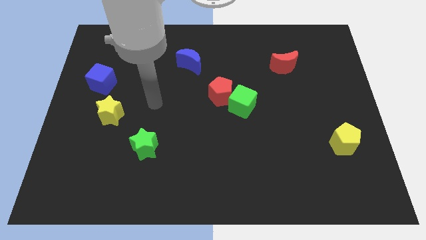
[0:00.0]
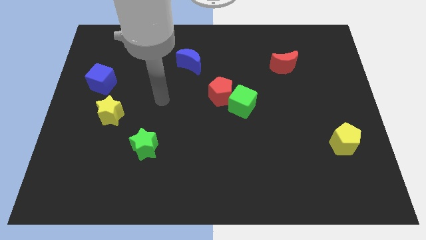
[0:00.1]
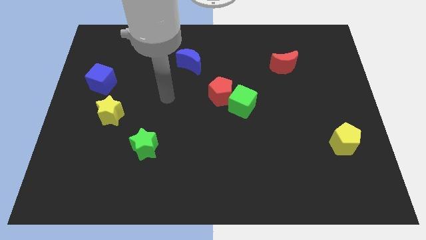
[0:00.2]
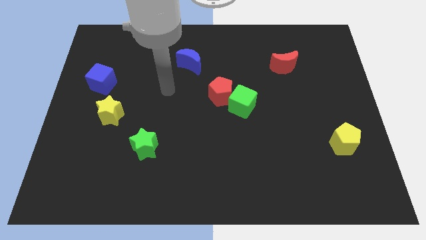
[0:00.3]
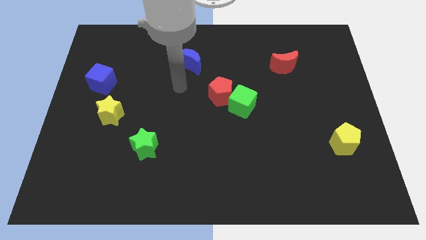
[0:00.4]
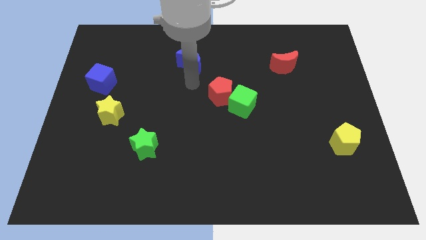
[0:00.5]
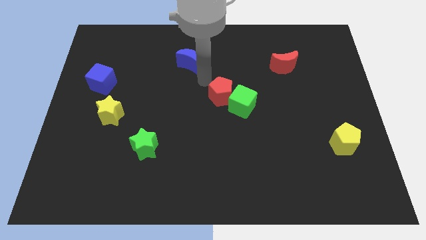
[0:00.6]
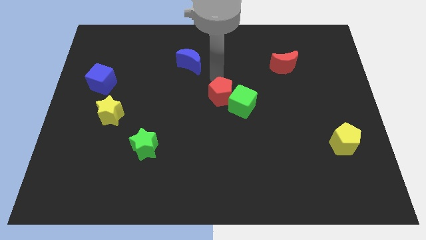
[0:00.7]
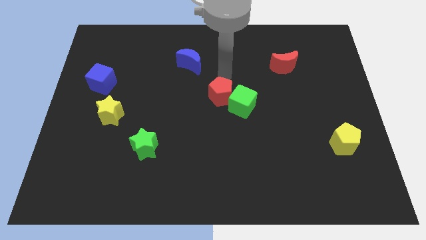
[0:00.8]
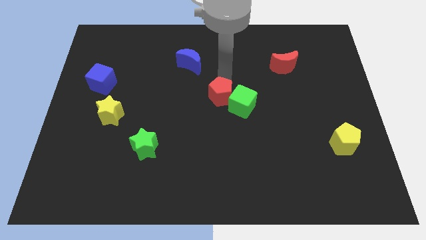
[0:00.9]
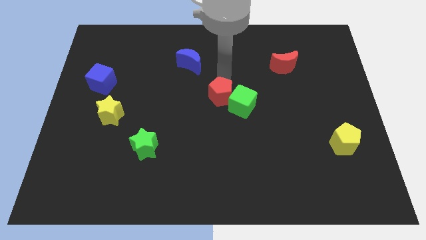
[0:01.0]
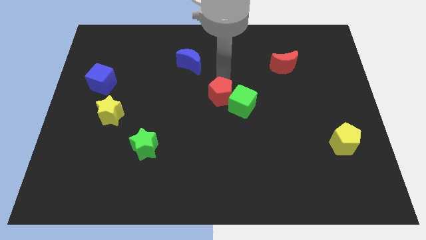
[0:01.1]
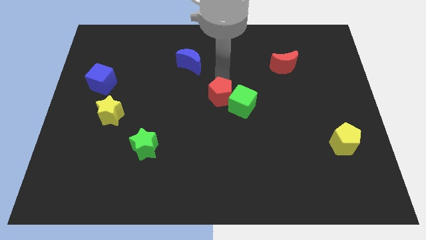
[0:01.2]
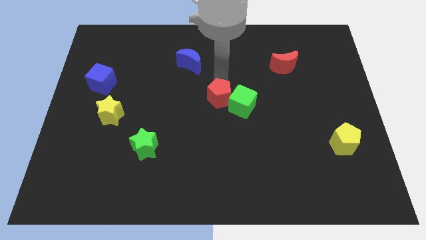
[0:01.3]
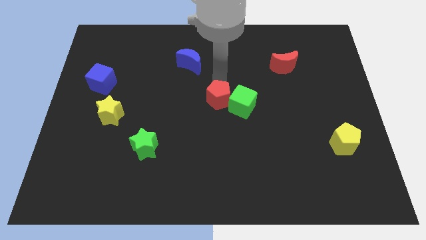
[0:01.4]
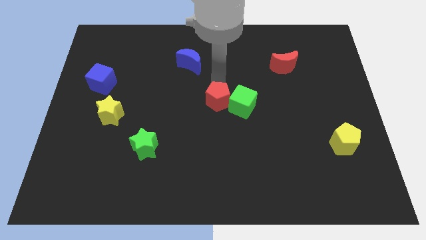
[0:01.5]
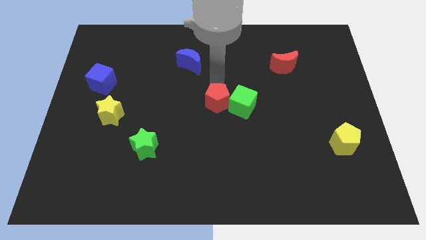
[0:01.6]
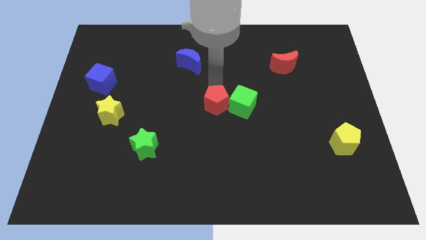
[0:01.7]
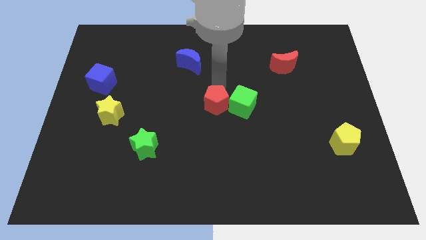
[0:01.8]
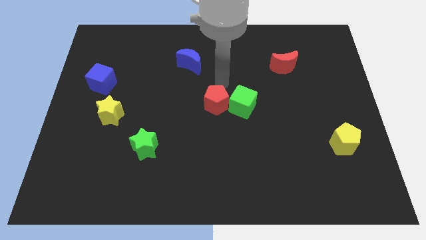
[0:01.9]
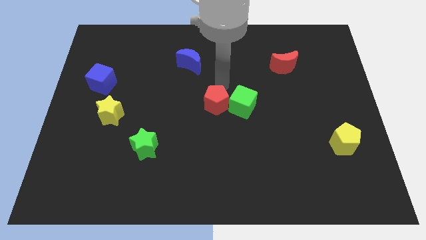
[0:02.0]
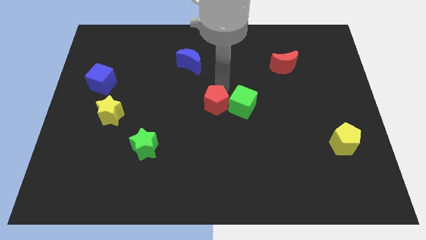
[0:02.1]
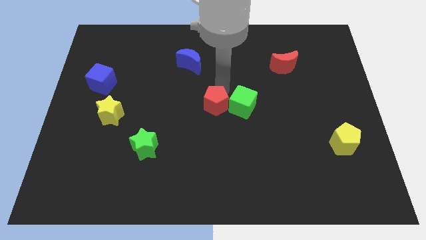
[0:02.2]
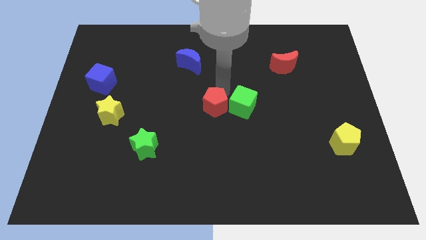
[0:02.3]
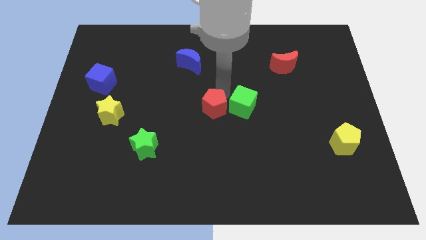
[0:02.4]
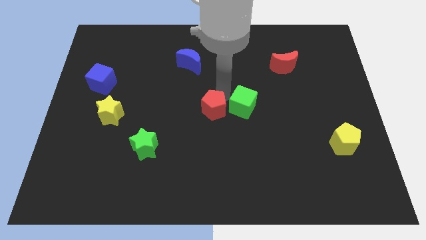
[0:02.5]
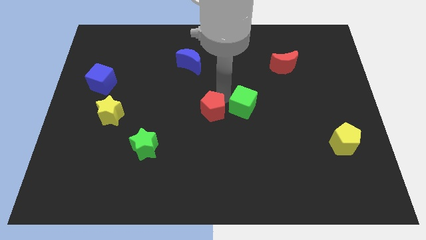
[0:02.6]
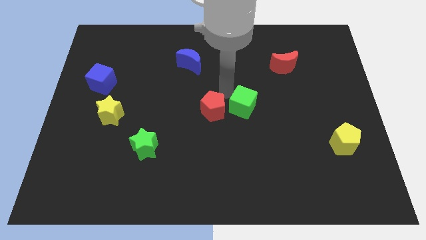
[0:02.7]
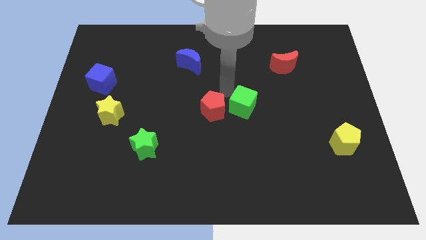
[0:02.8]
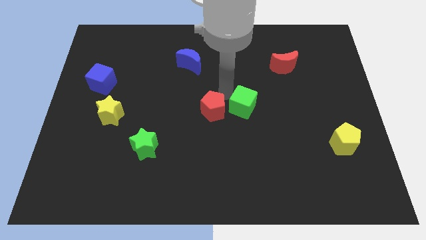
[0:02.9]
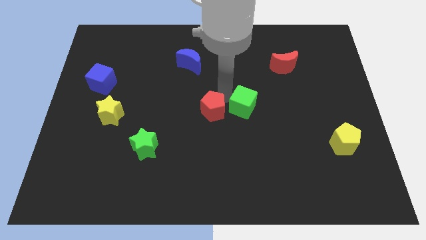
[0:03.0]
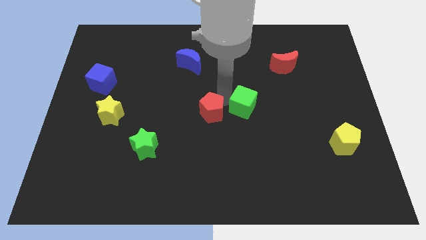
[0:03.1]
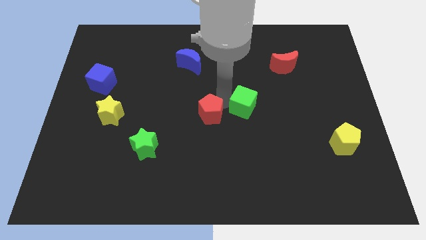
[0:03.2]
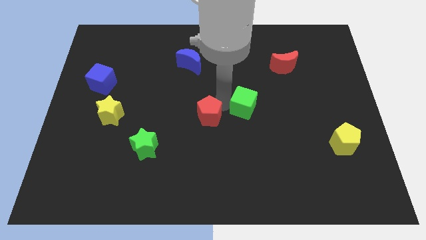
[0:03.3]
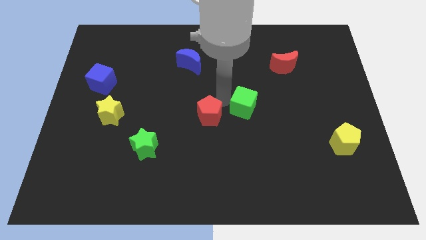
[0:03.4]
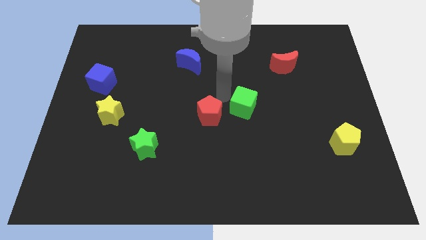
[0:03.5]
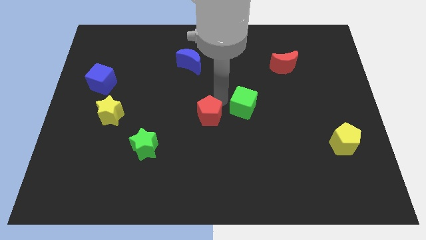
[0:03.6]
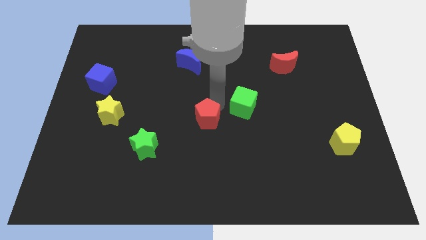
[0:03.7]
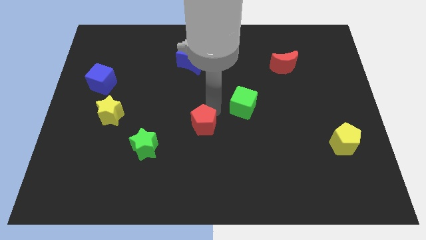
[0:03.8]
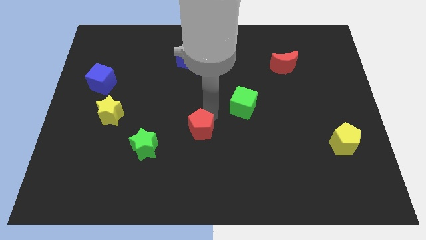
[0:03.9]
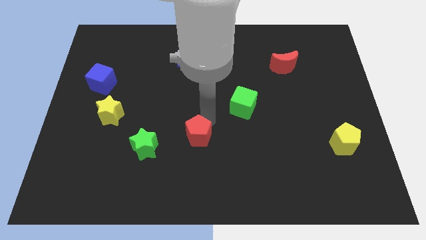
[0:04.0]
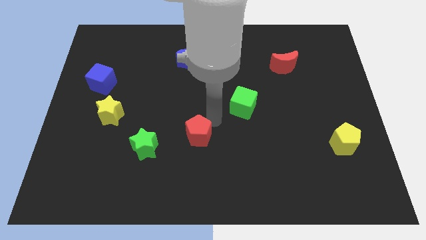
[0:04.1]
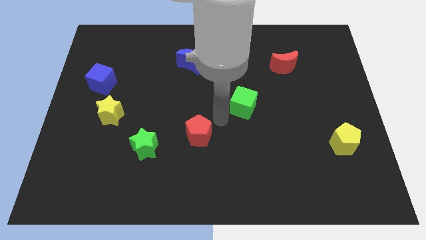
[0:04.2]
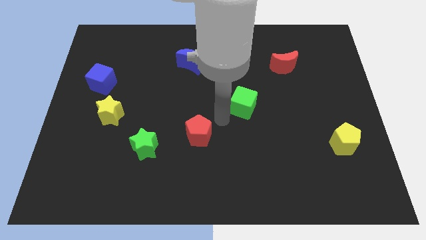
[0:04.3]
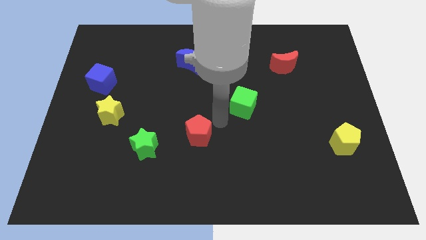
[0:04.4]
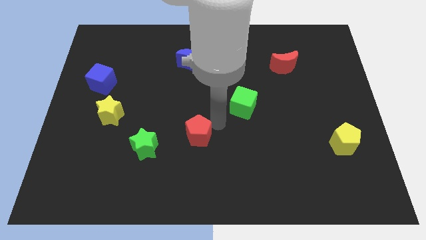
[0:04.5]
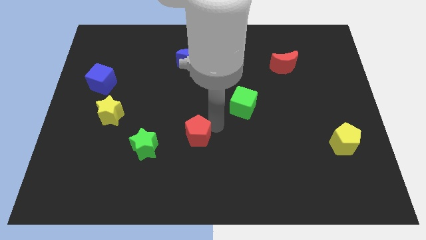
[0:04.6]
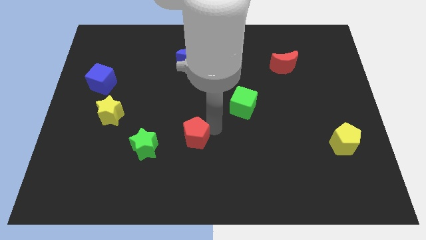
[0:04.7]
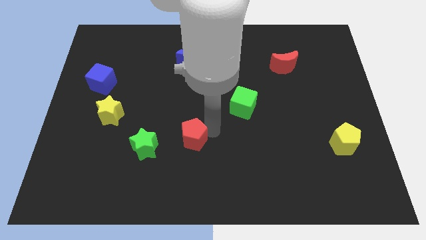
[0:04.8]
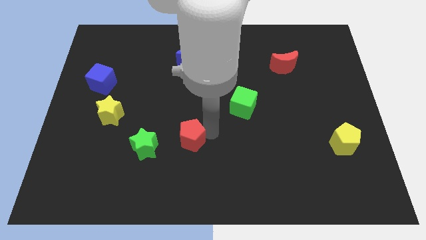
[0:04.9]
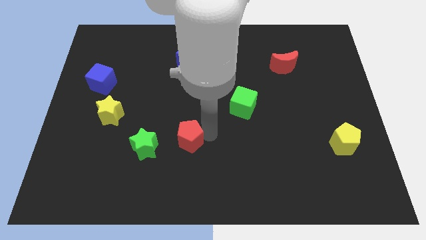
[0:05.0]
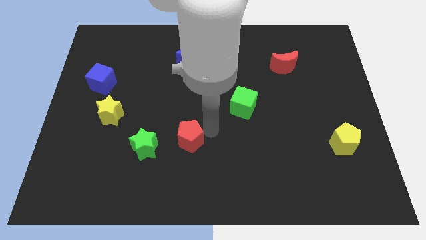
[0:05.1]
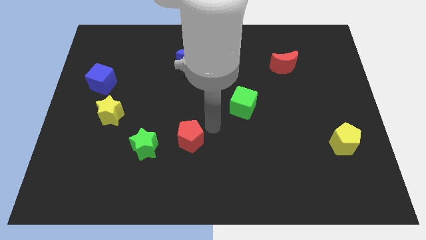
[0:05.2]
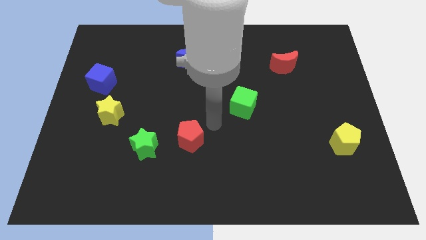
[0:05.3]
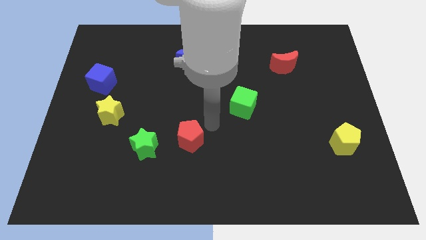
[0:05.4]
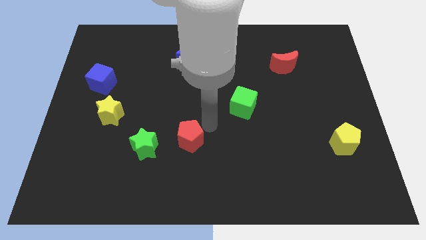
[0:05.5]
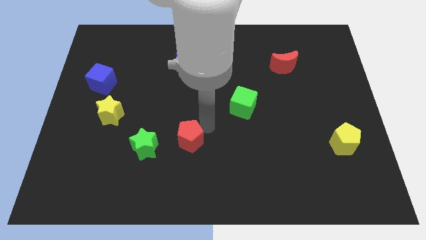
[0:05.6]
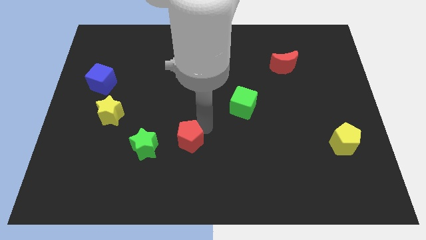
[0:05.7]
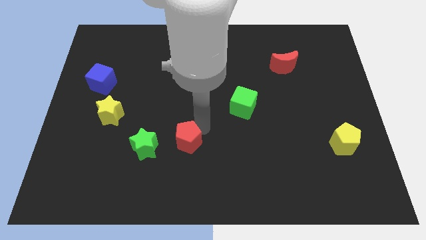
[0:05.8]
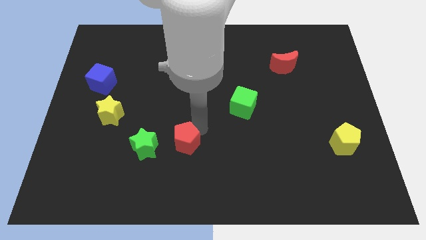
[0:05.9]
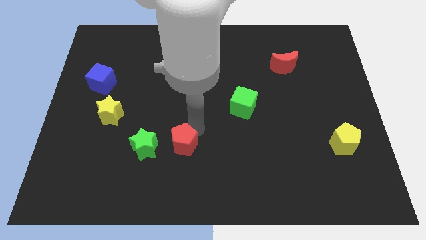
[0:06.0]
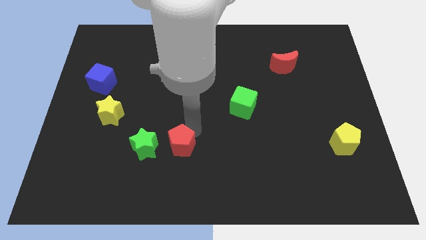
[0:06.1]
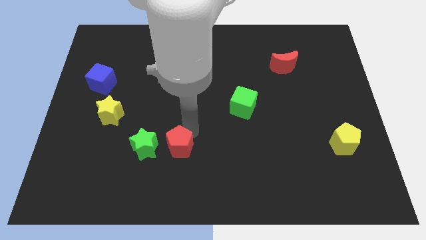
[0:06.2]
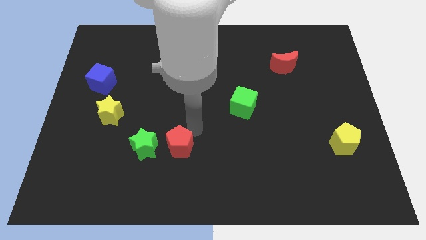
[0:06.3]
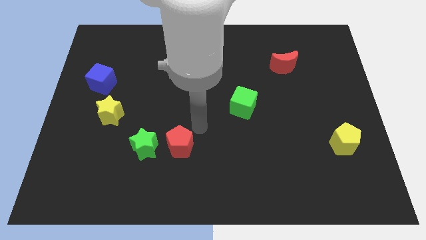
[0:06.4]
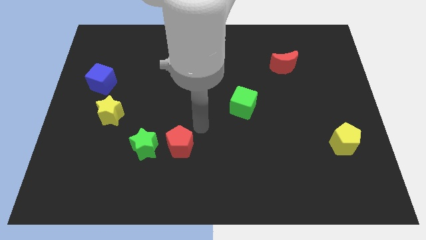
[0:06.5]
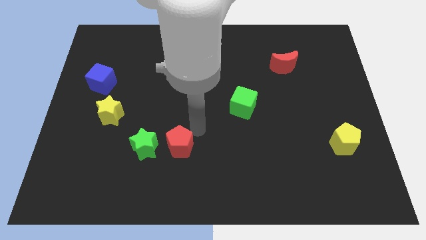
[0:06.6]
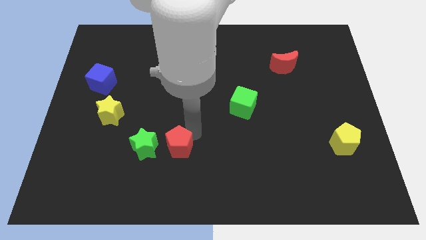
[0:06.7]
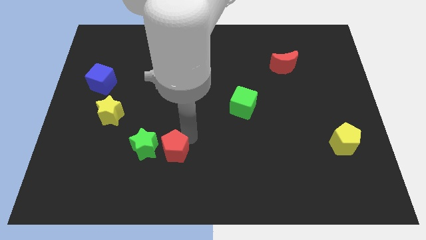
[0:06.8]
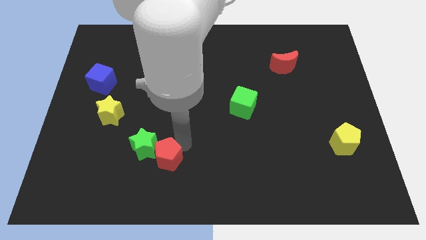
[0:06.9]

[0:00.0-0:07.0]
move the red pentagon downwards and then to the left

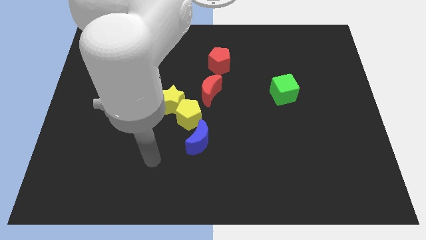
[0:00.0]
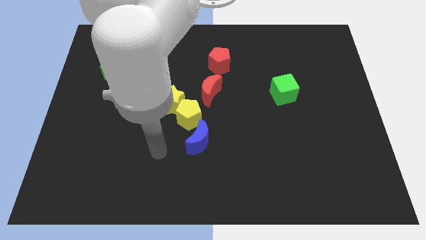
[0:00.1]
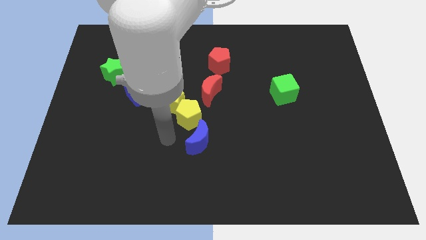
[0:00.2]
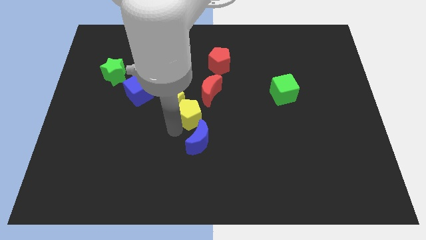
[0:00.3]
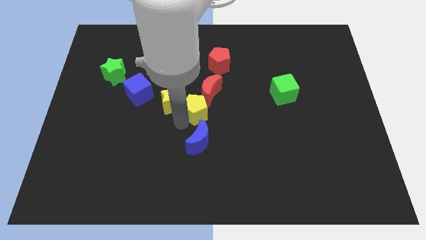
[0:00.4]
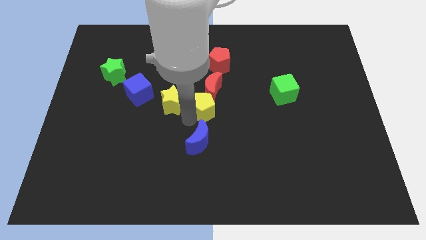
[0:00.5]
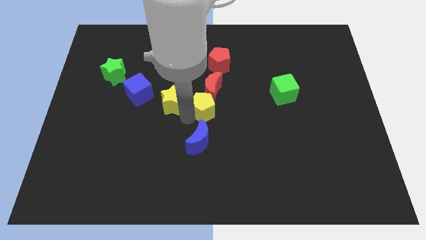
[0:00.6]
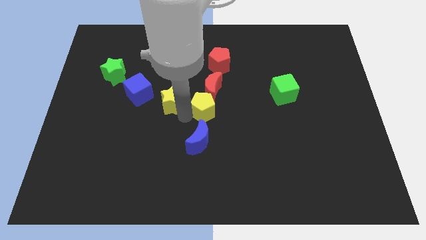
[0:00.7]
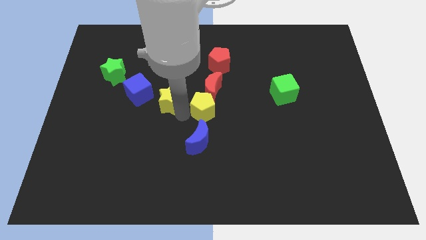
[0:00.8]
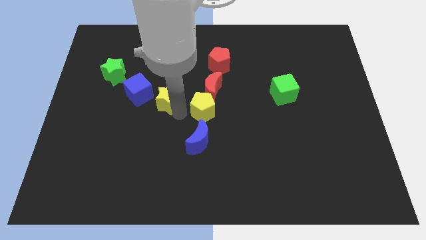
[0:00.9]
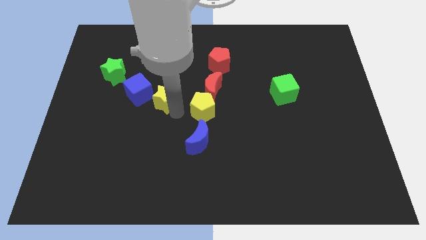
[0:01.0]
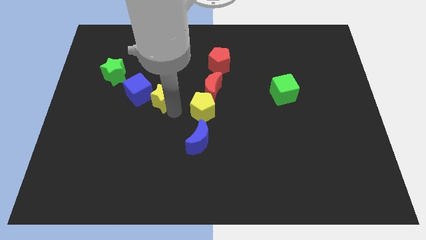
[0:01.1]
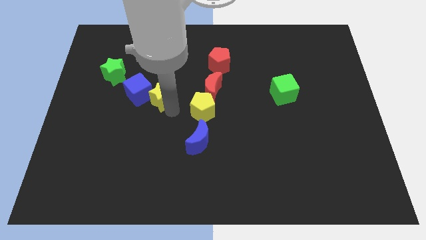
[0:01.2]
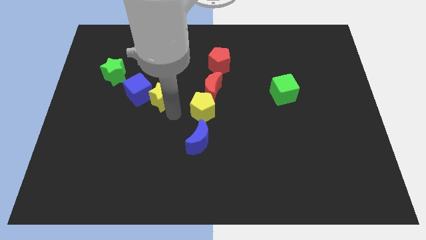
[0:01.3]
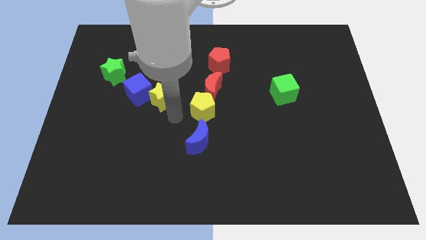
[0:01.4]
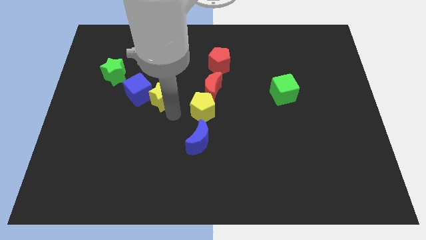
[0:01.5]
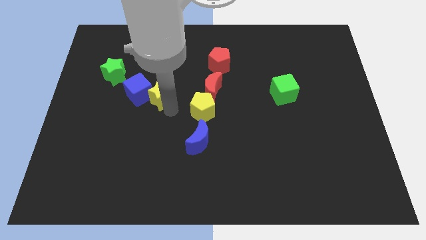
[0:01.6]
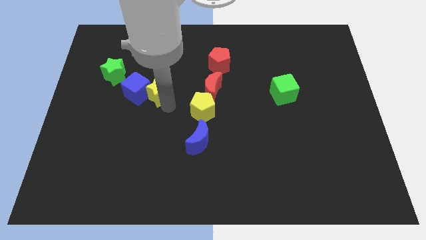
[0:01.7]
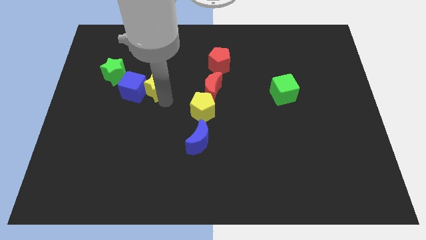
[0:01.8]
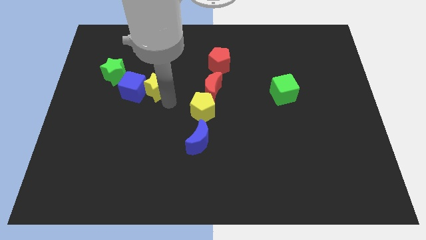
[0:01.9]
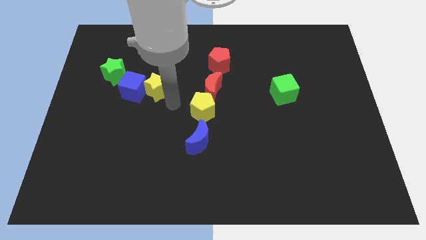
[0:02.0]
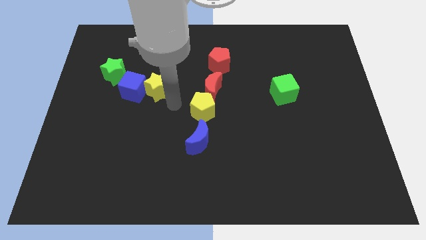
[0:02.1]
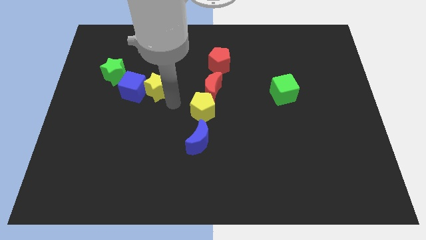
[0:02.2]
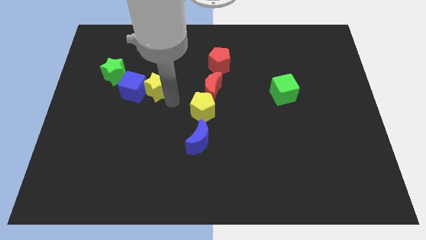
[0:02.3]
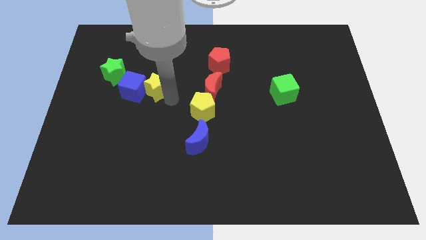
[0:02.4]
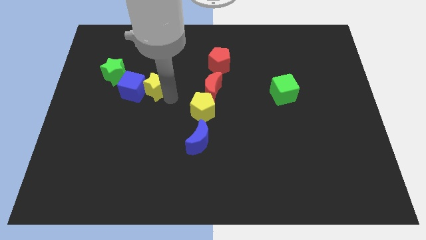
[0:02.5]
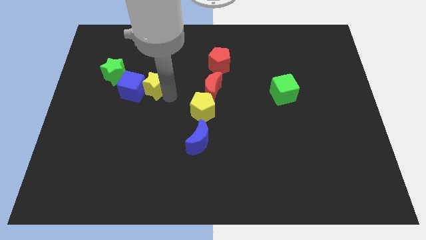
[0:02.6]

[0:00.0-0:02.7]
slide the yellow star a little bit upwards and to the left
